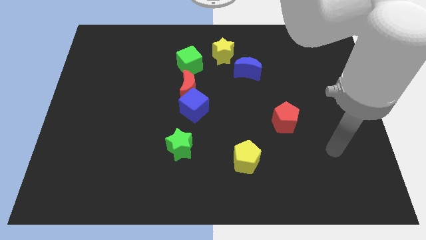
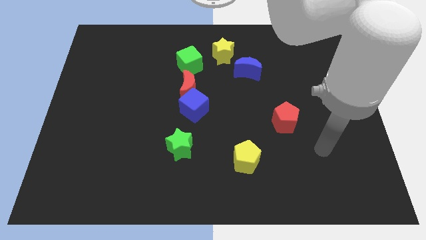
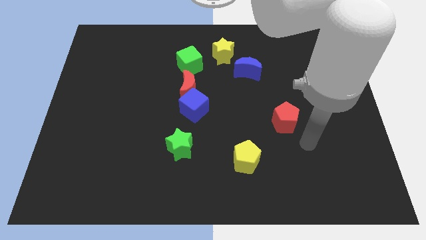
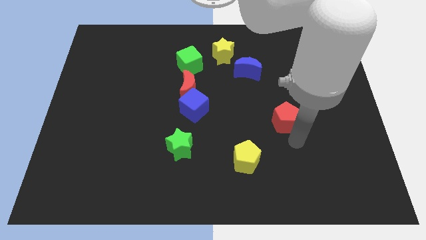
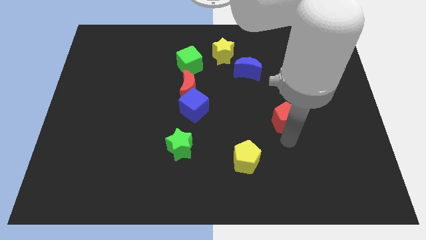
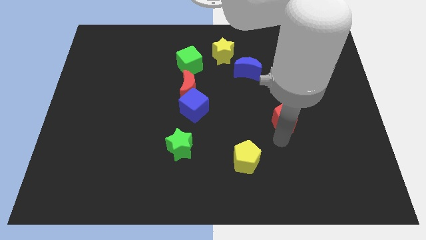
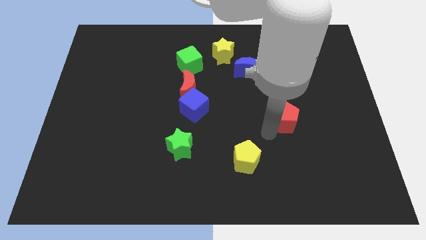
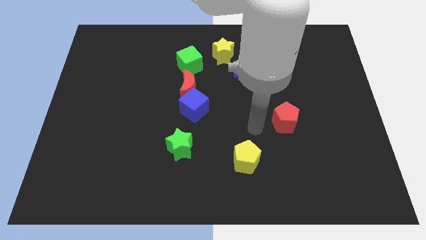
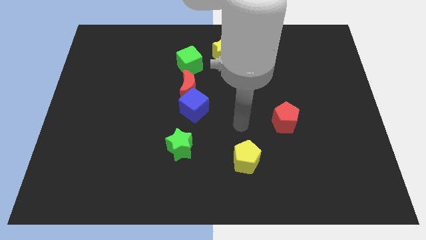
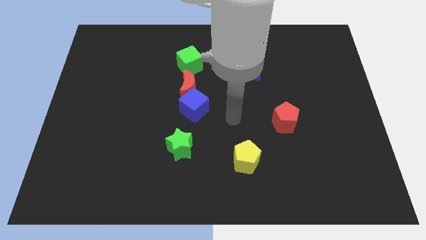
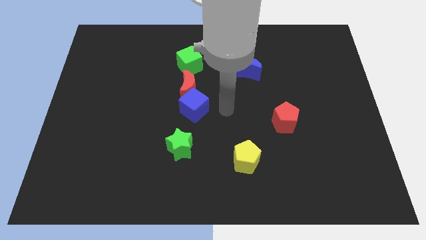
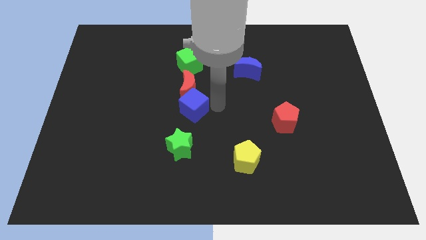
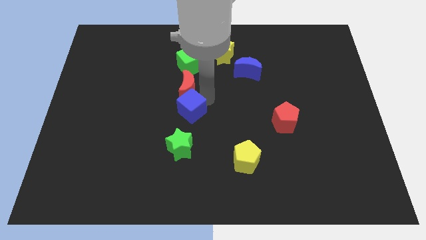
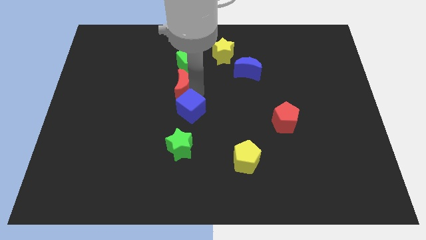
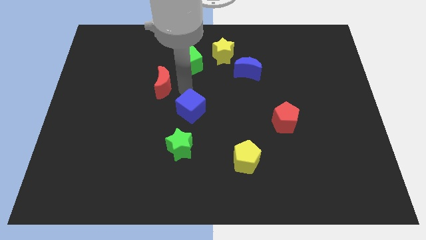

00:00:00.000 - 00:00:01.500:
separate the blue cube from the red moon

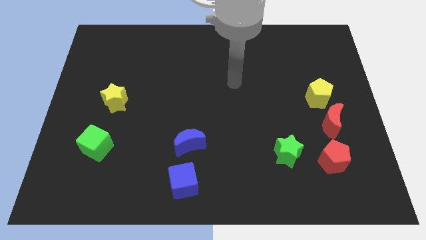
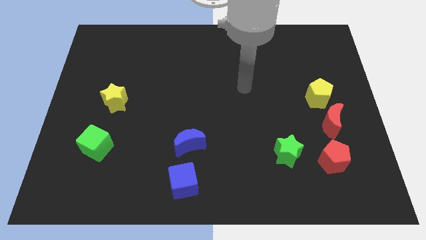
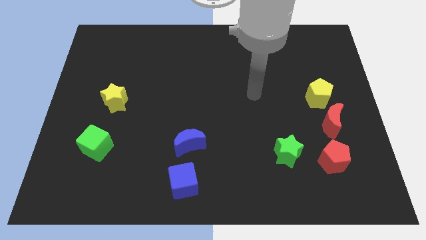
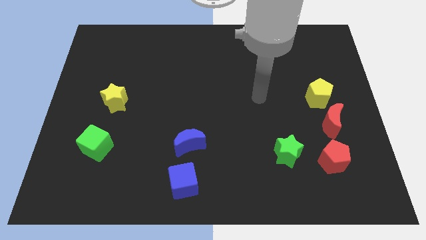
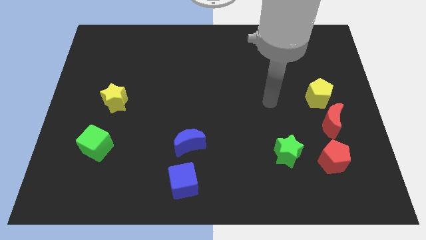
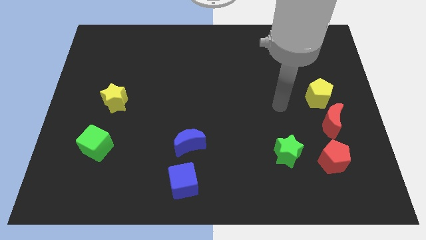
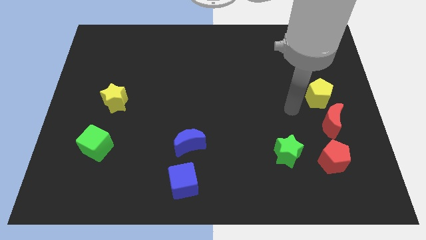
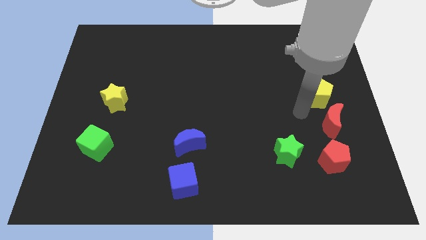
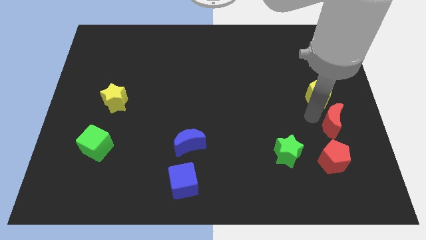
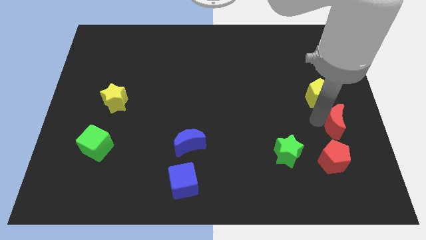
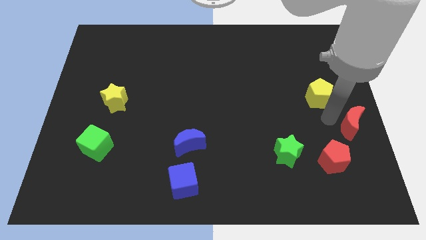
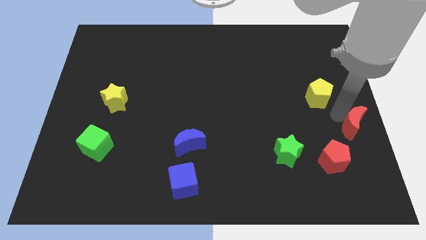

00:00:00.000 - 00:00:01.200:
separate the yellow pentagon from the red moon

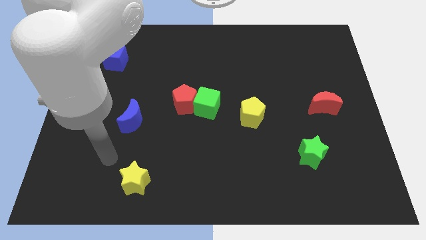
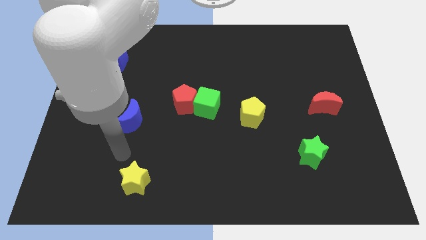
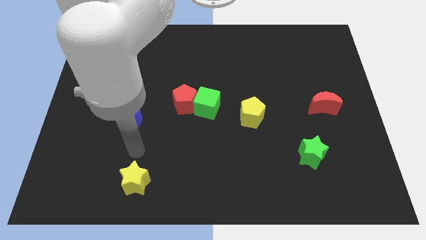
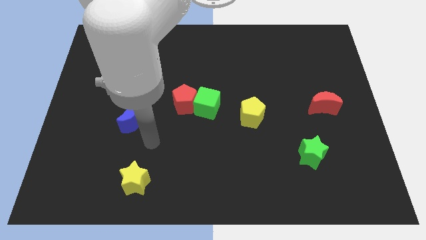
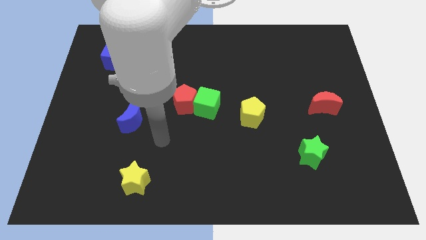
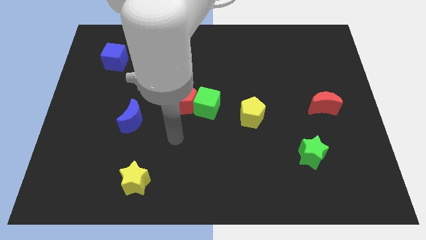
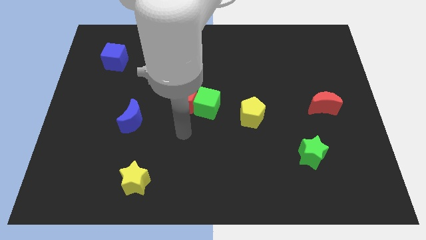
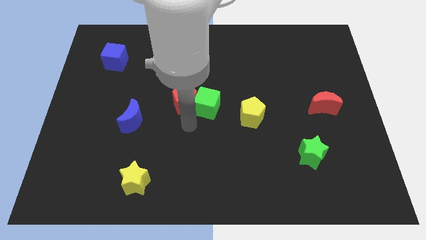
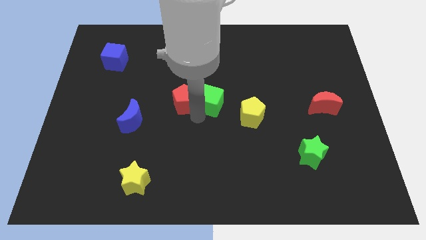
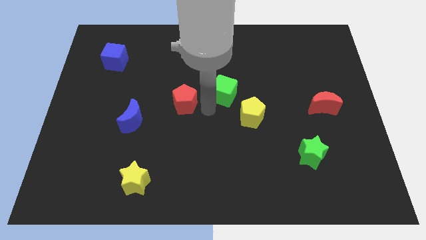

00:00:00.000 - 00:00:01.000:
pull the red pentagon apart from the green cube

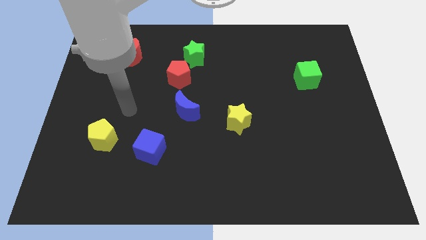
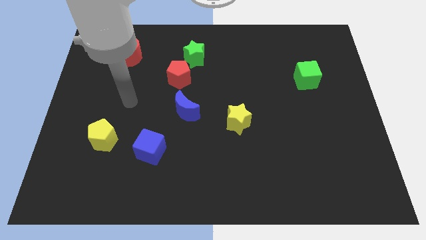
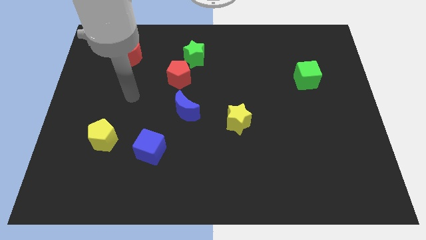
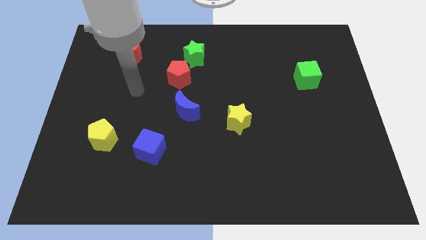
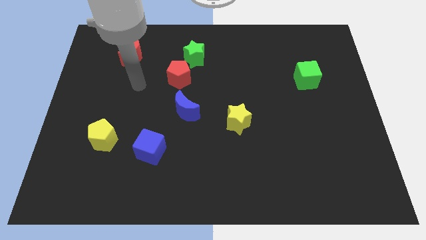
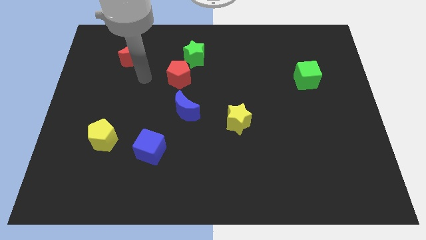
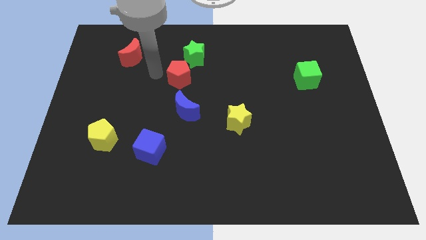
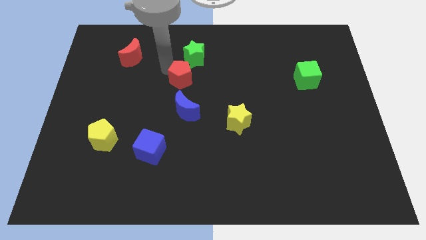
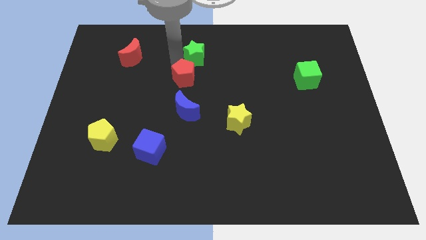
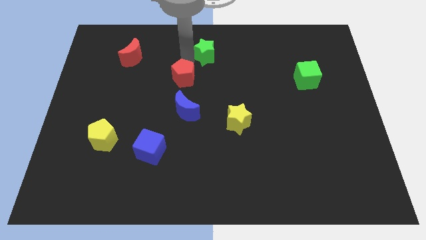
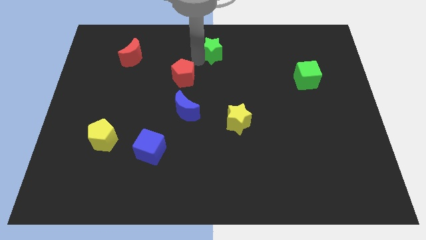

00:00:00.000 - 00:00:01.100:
separate the red pentagon from the green star

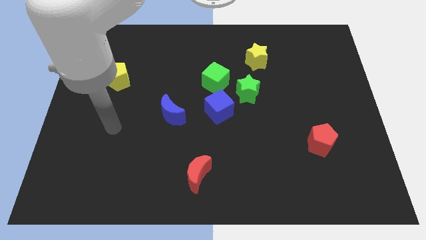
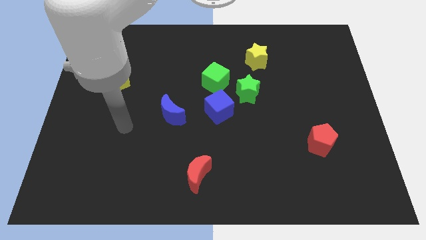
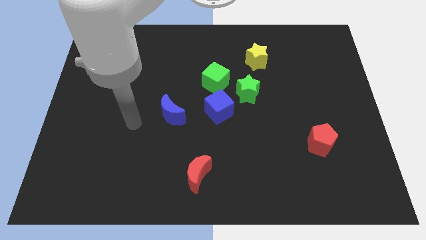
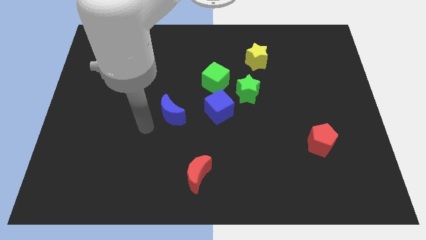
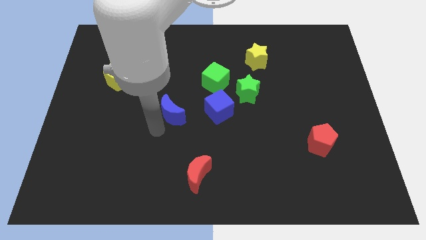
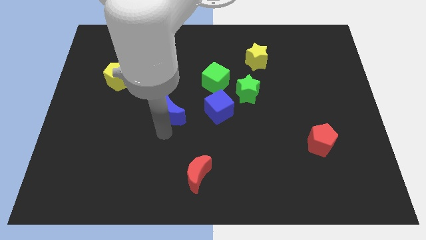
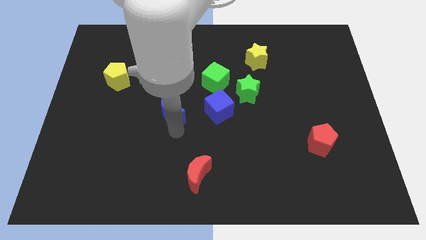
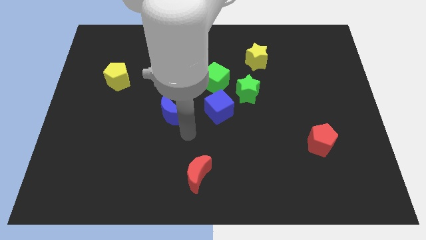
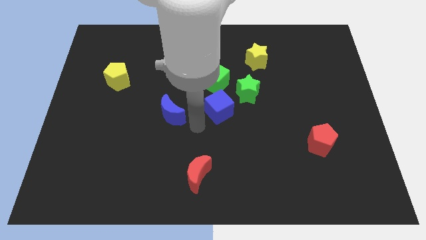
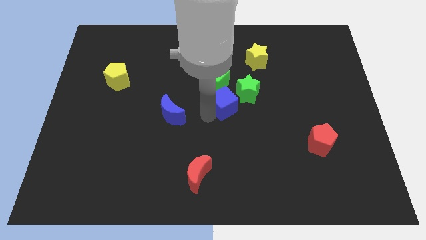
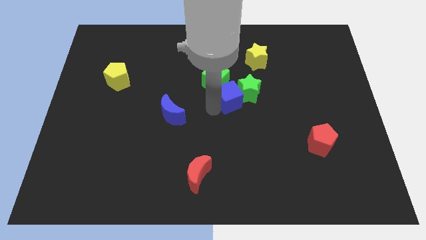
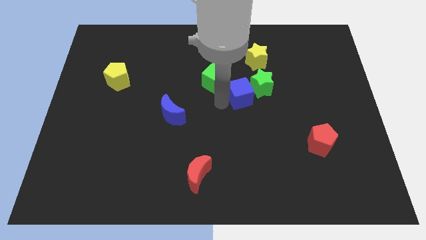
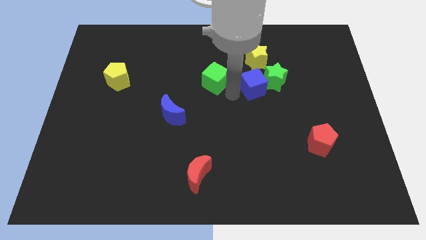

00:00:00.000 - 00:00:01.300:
separate the green cube from the green star and blue cube

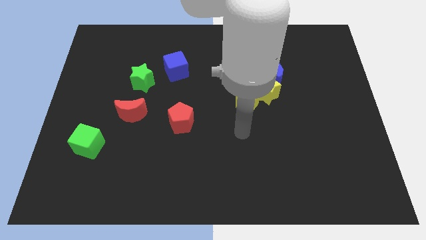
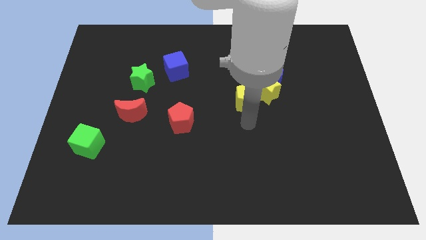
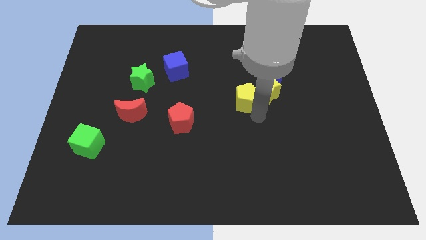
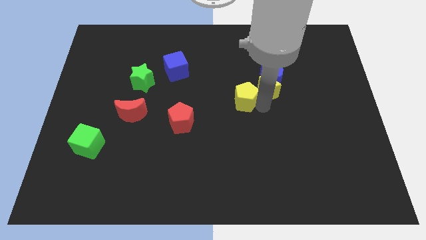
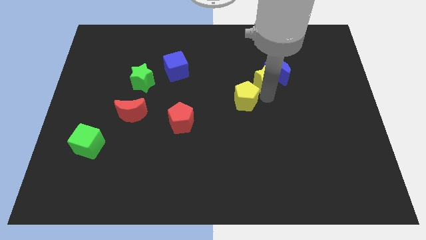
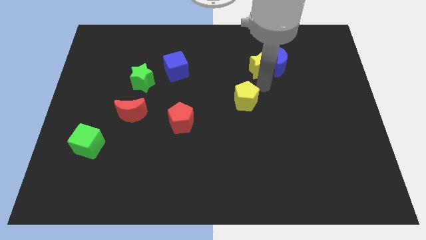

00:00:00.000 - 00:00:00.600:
separate the yellow pentagon from the yellow star

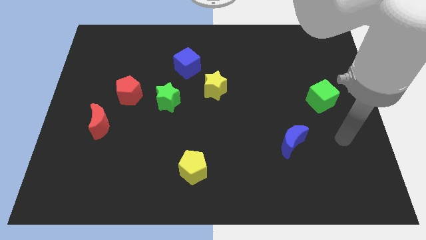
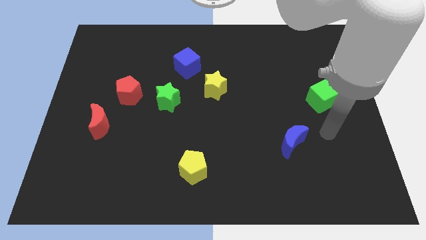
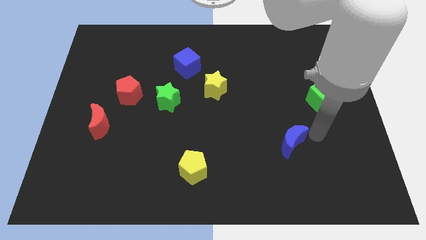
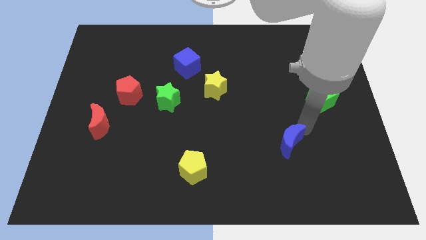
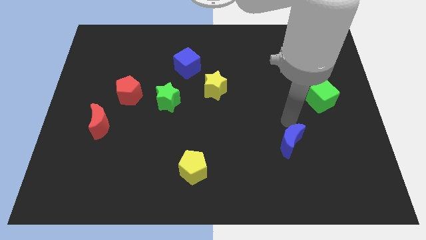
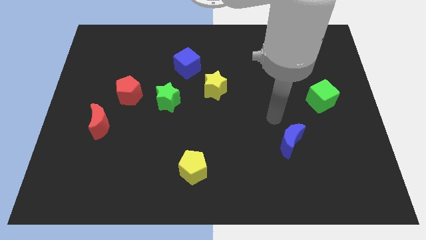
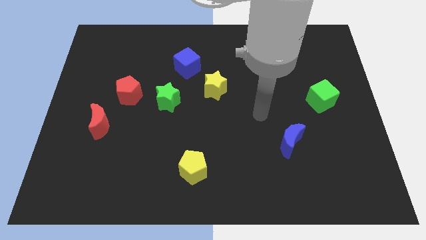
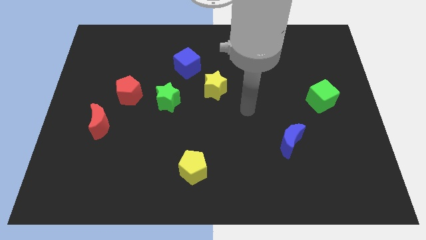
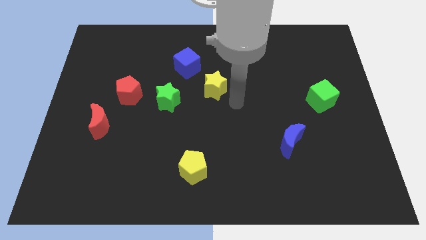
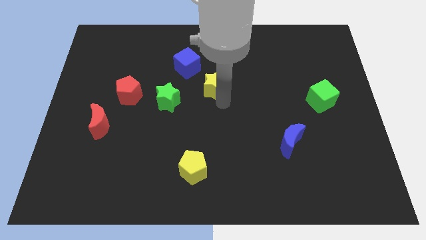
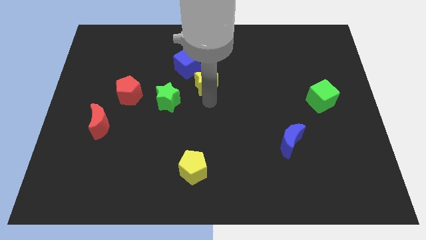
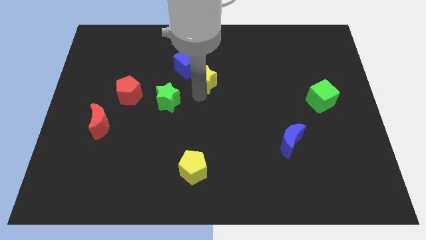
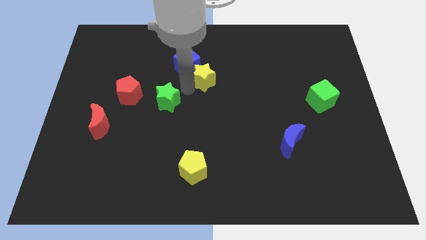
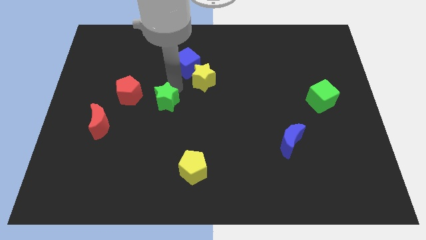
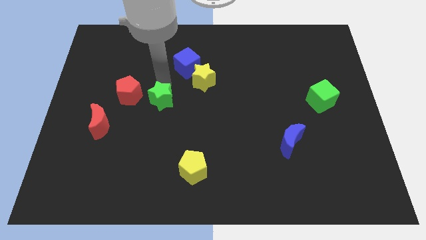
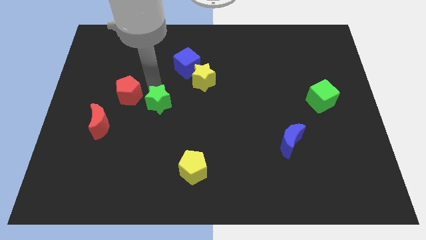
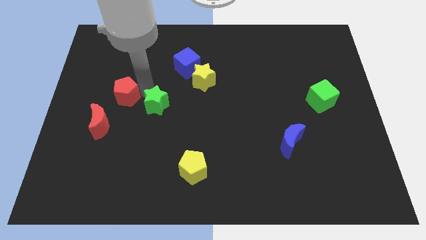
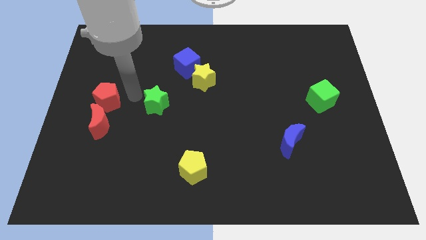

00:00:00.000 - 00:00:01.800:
separate the green star from the red pentagon

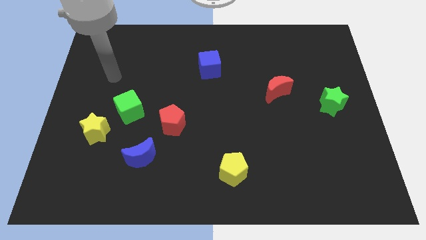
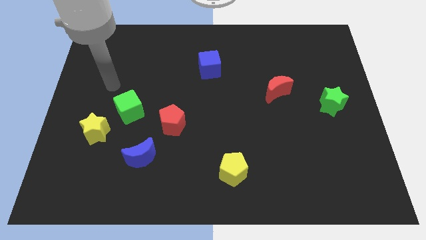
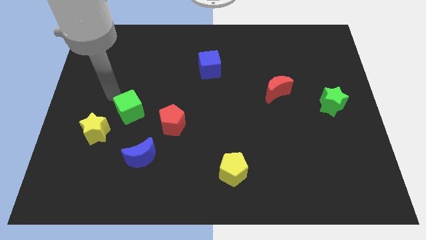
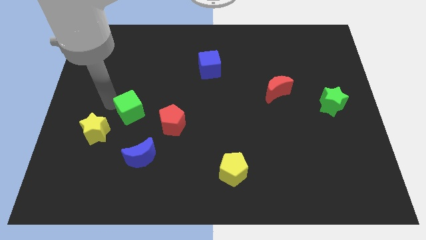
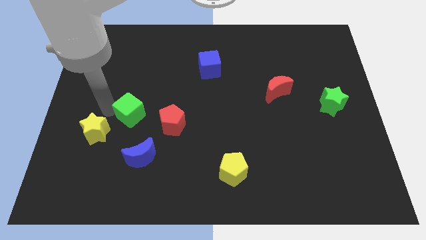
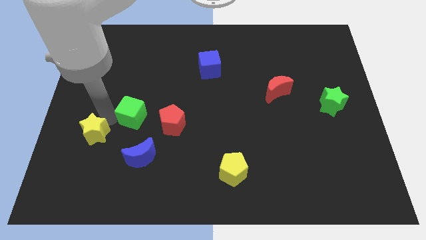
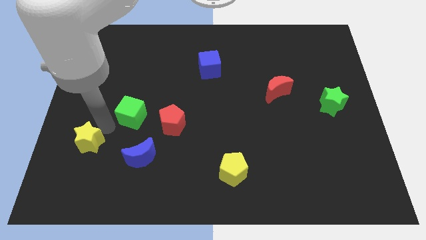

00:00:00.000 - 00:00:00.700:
move the green cube away from the yellow star

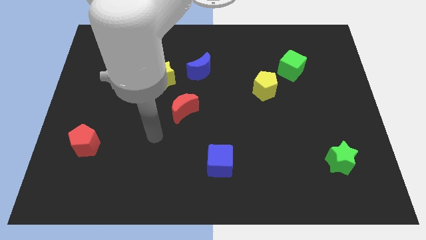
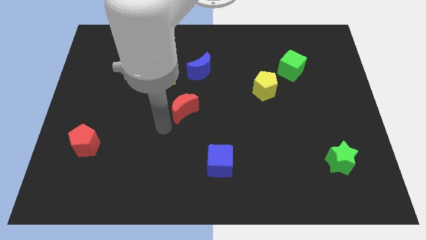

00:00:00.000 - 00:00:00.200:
move the blue moon away from the yellow star
